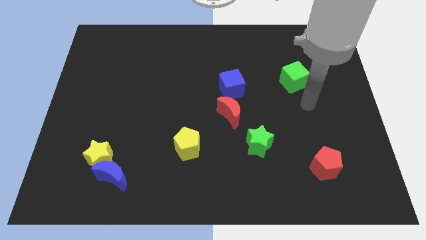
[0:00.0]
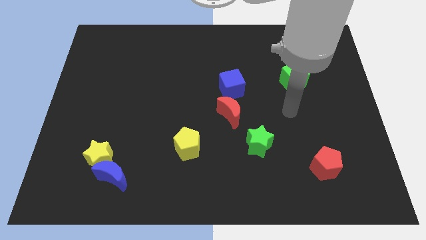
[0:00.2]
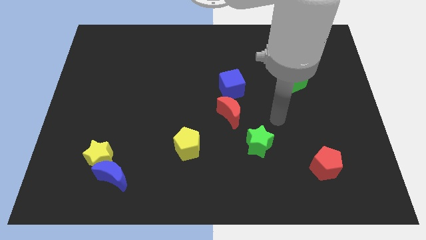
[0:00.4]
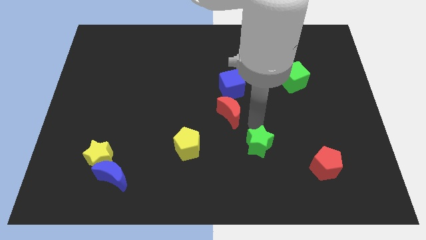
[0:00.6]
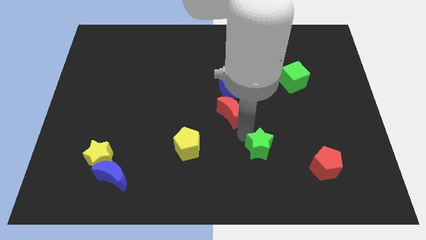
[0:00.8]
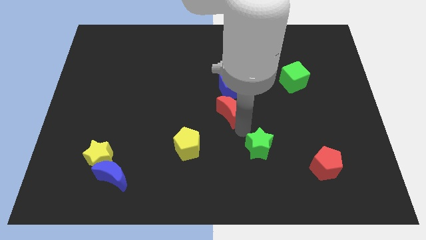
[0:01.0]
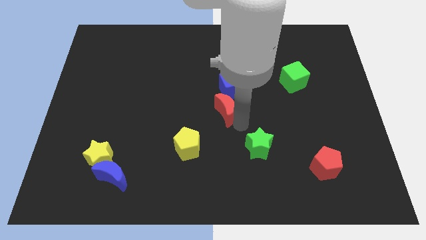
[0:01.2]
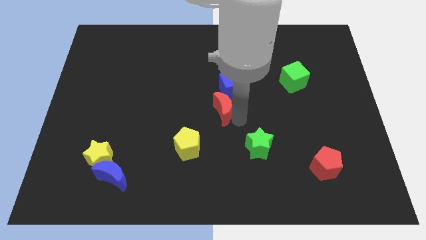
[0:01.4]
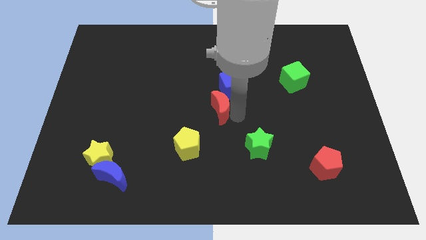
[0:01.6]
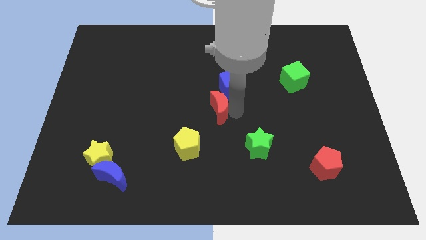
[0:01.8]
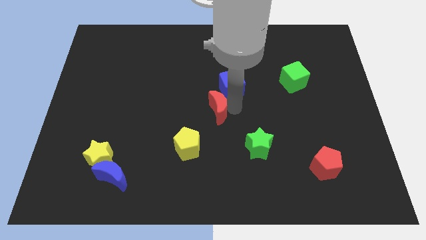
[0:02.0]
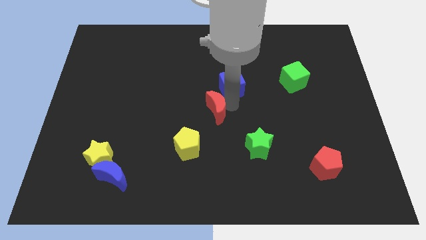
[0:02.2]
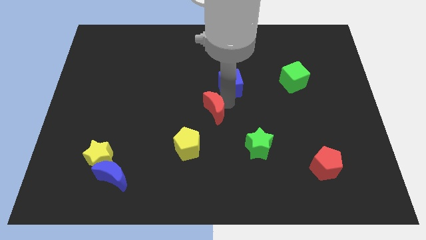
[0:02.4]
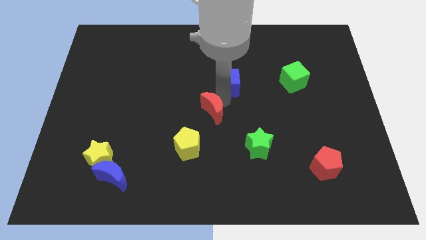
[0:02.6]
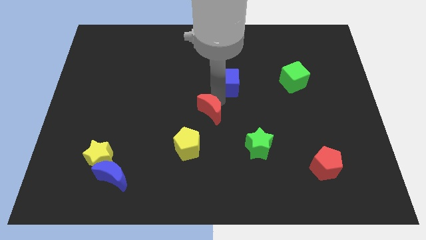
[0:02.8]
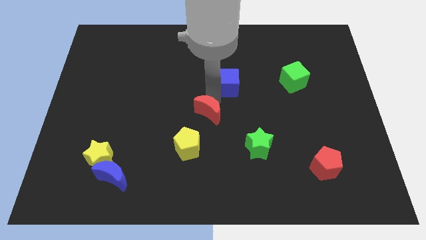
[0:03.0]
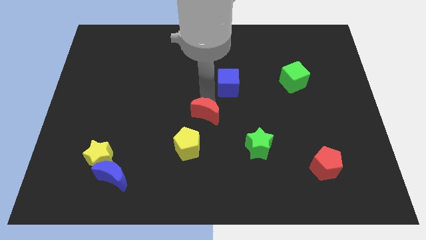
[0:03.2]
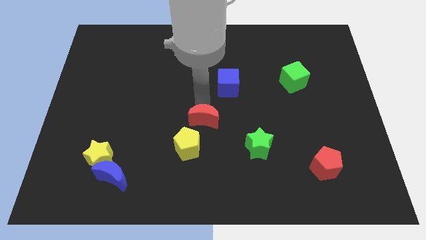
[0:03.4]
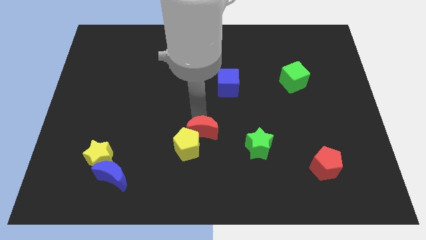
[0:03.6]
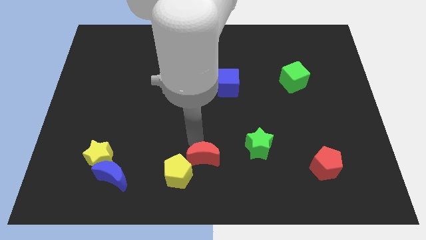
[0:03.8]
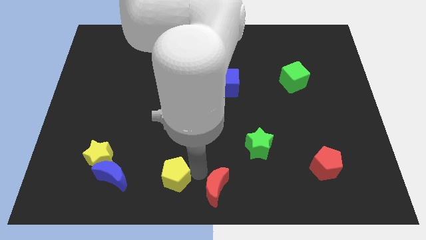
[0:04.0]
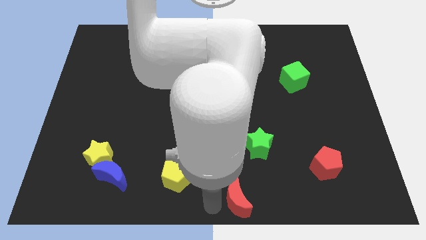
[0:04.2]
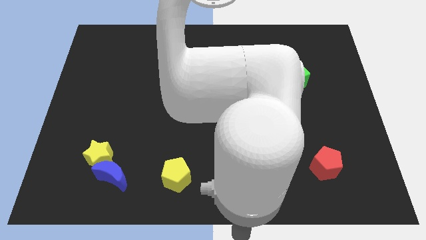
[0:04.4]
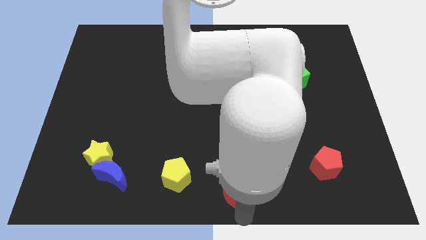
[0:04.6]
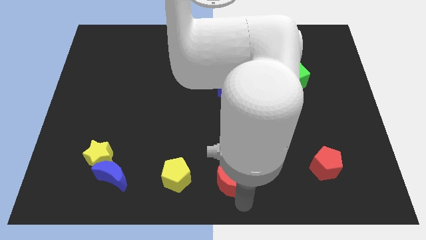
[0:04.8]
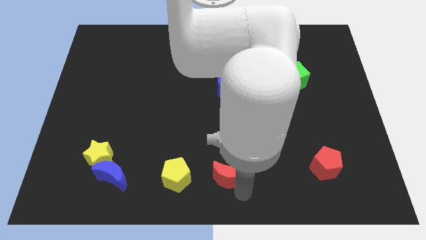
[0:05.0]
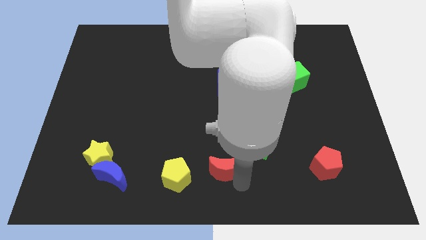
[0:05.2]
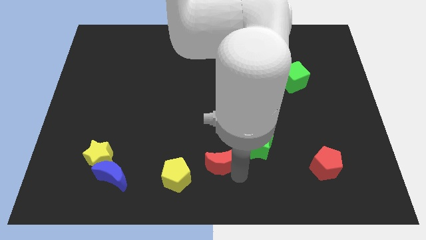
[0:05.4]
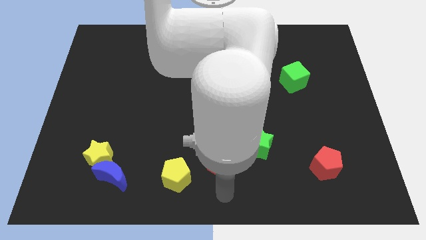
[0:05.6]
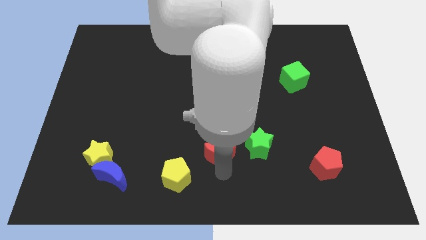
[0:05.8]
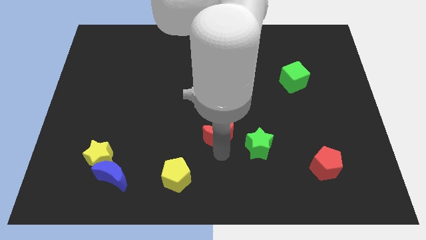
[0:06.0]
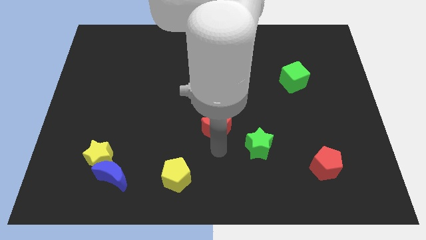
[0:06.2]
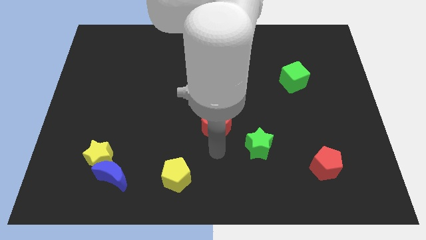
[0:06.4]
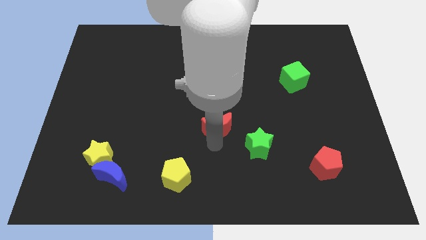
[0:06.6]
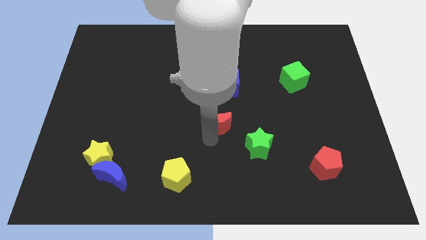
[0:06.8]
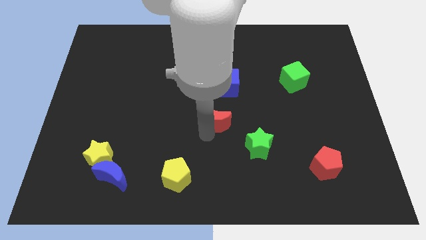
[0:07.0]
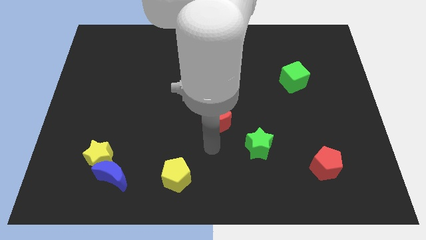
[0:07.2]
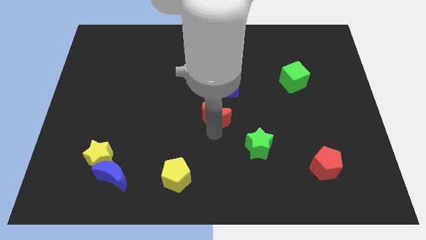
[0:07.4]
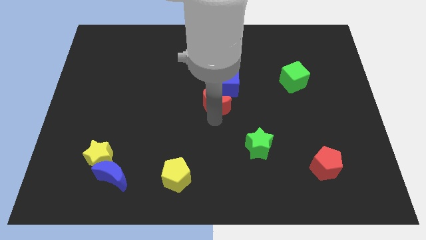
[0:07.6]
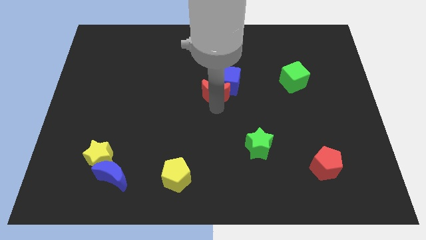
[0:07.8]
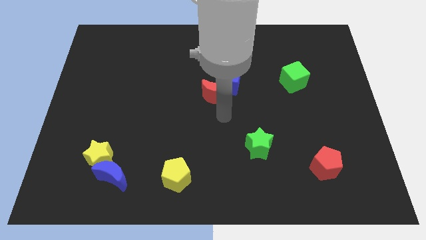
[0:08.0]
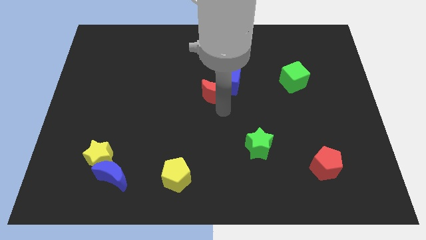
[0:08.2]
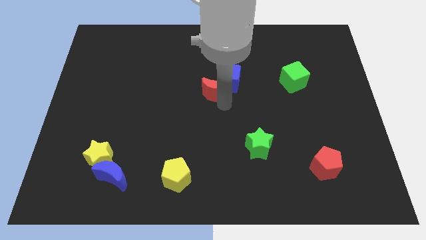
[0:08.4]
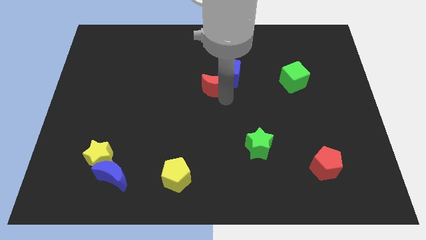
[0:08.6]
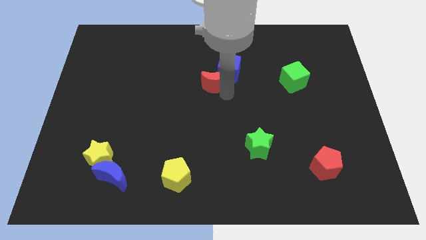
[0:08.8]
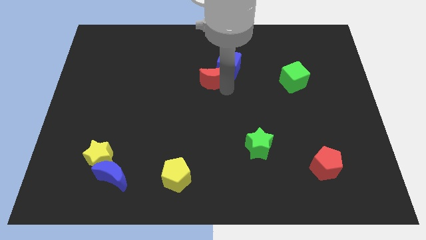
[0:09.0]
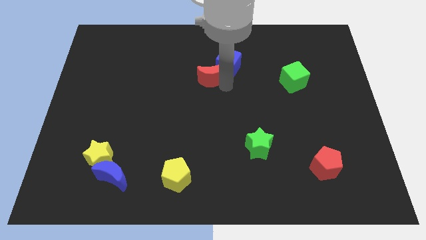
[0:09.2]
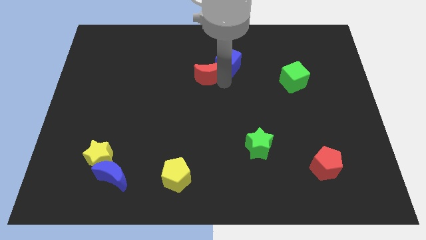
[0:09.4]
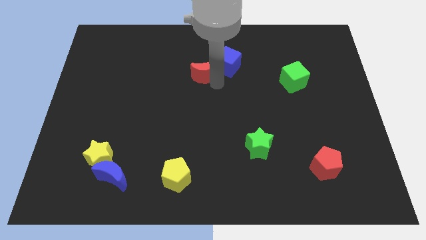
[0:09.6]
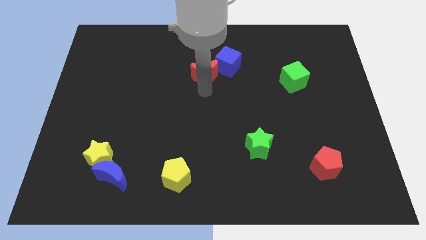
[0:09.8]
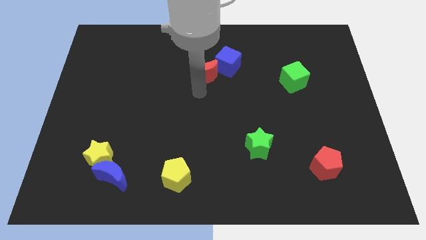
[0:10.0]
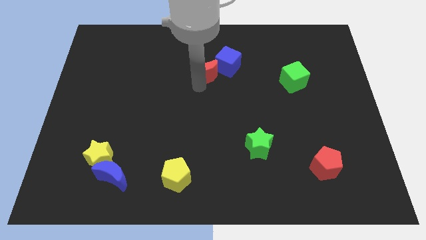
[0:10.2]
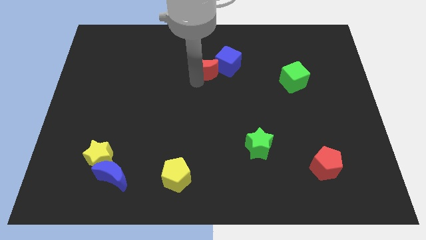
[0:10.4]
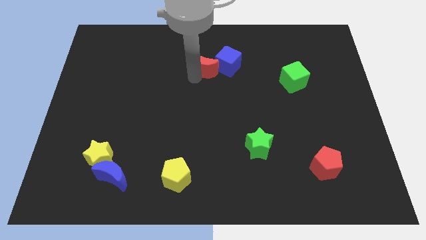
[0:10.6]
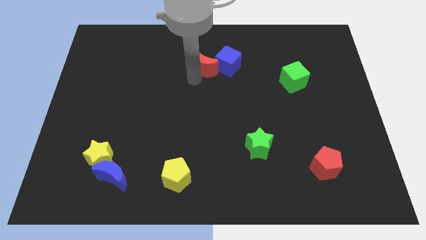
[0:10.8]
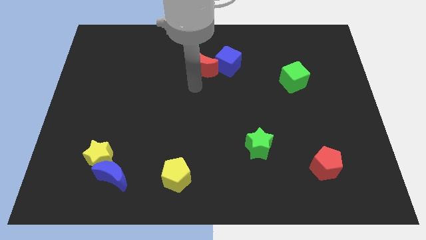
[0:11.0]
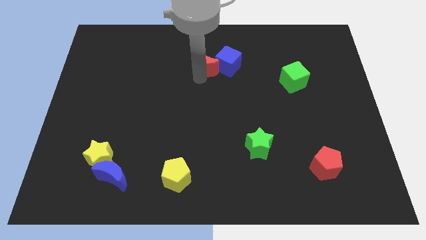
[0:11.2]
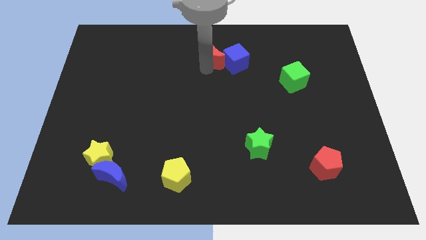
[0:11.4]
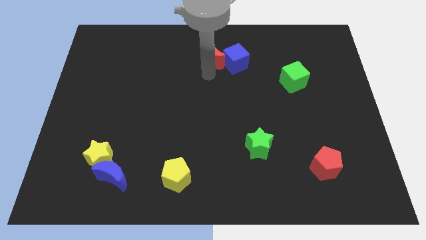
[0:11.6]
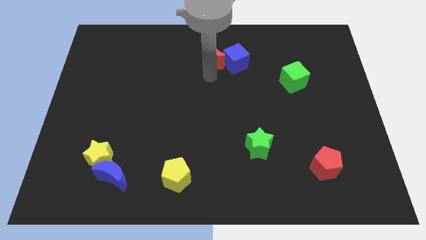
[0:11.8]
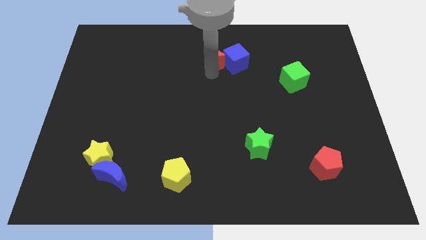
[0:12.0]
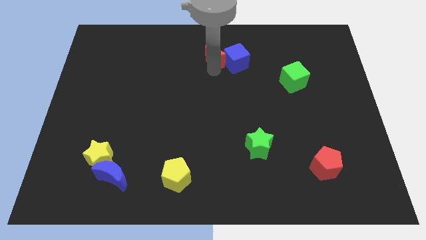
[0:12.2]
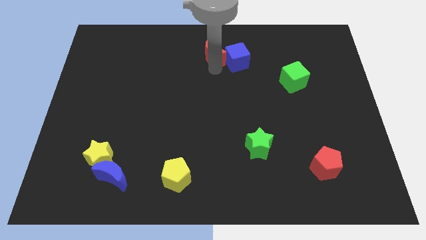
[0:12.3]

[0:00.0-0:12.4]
move the red moon to the towards your base
